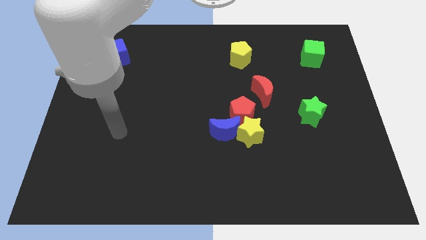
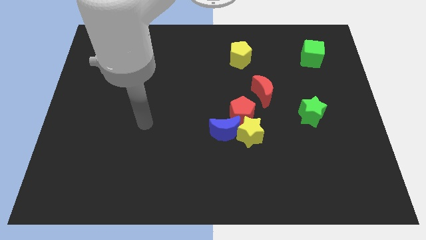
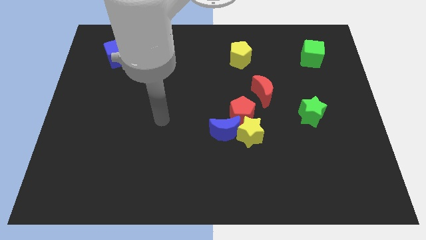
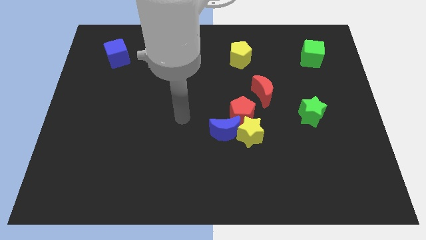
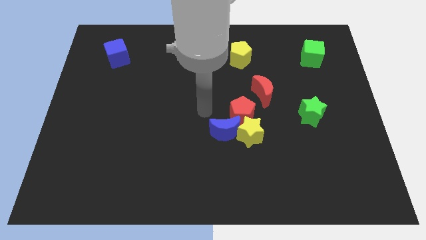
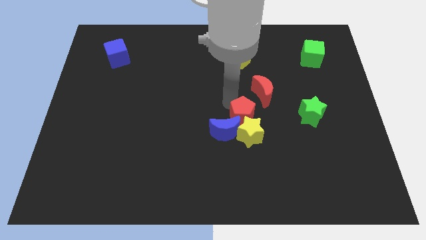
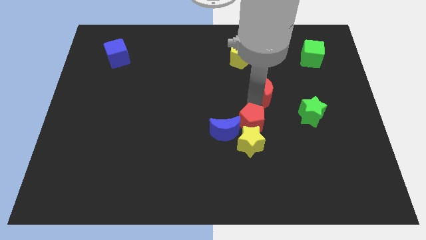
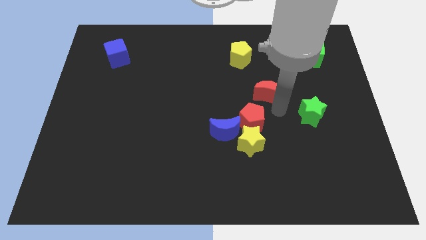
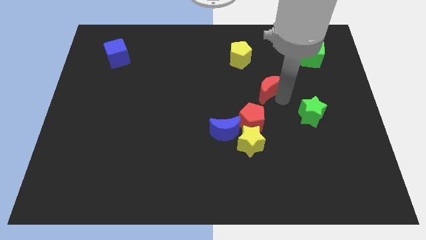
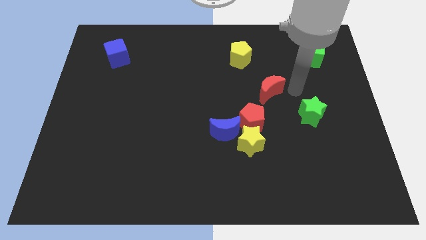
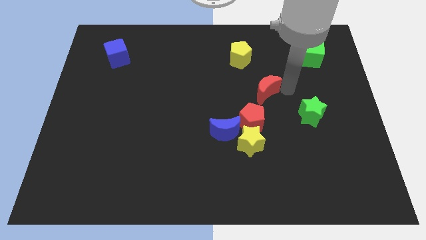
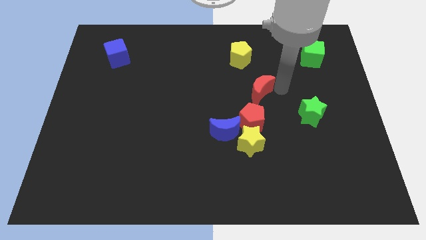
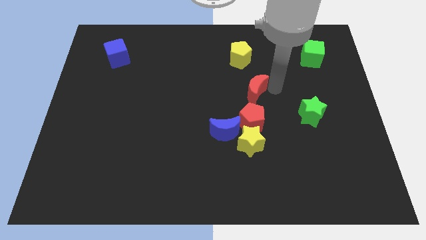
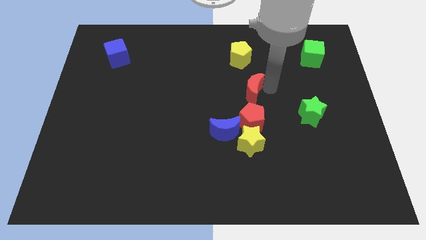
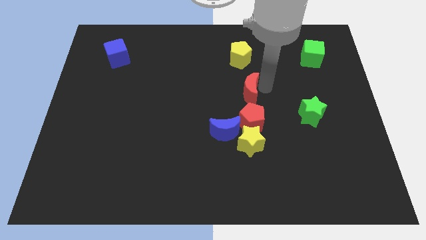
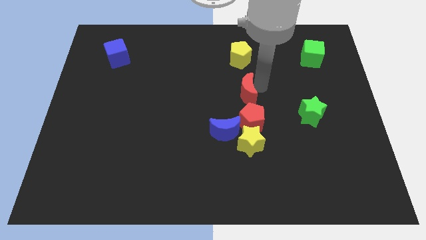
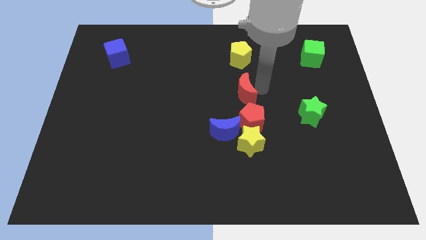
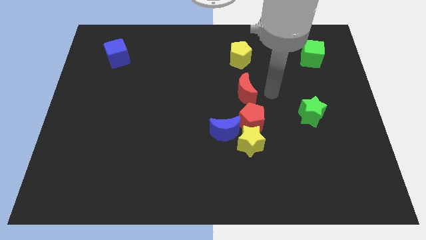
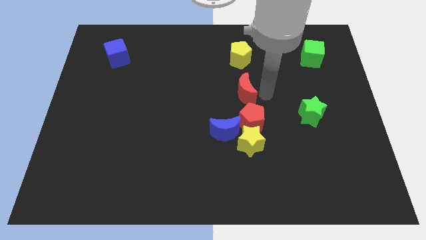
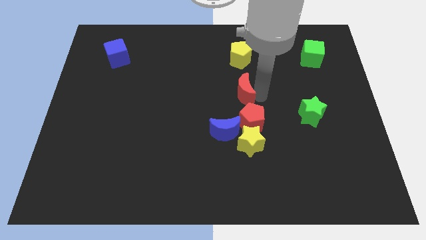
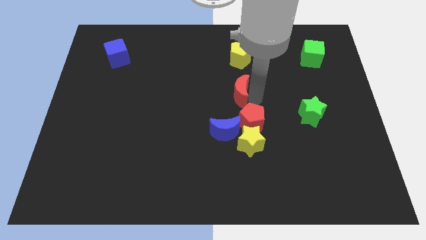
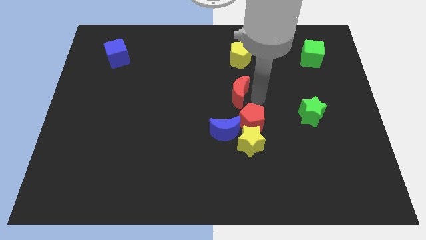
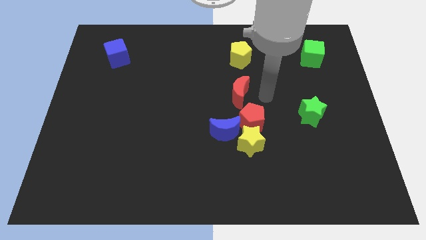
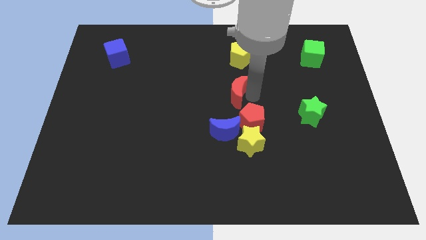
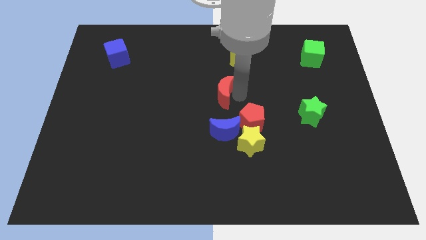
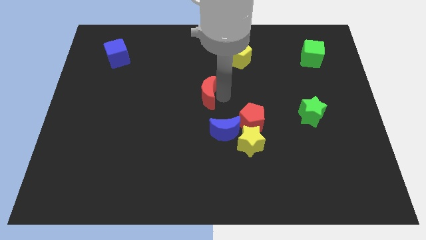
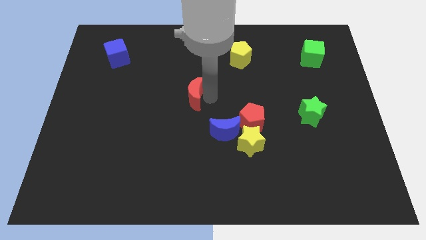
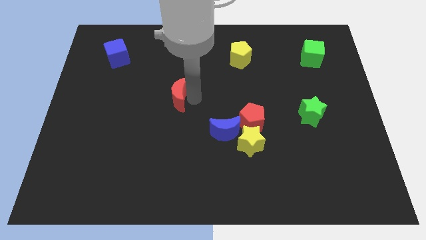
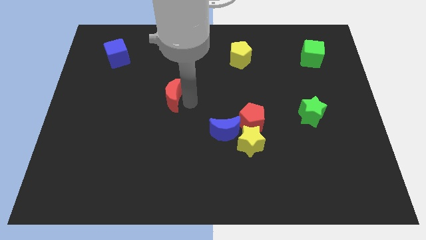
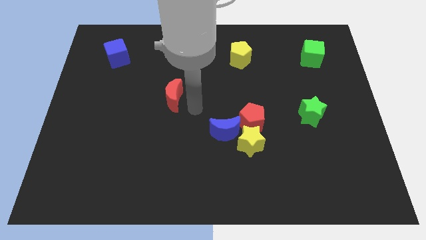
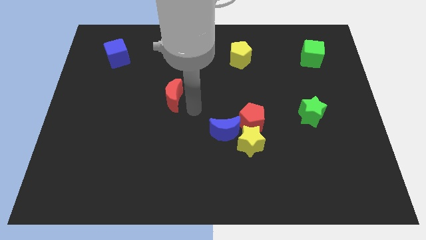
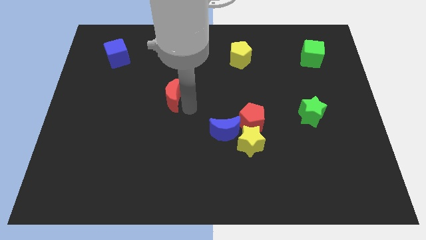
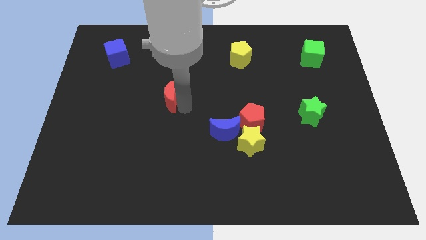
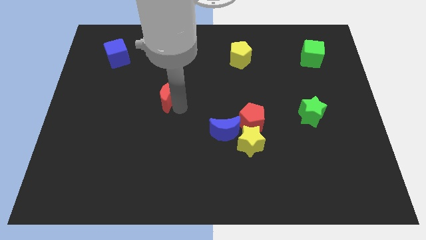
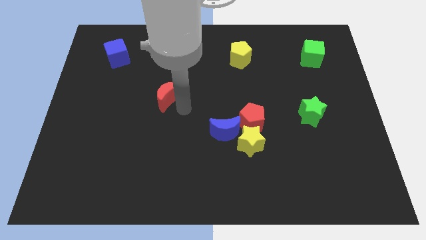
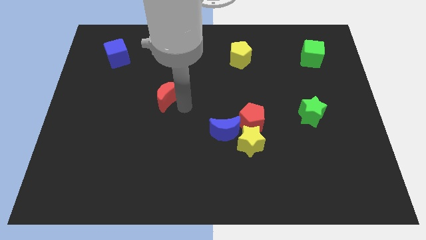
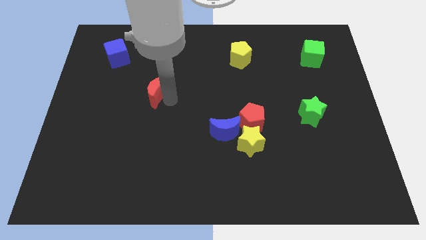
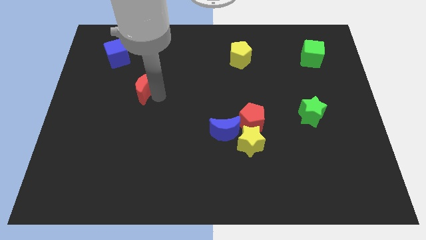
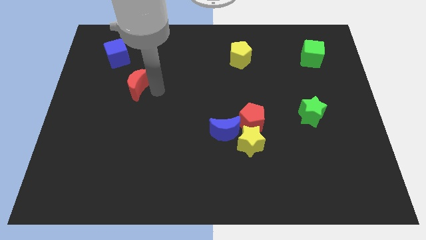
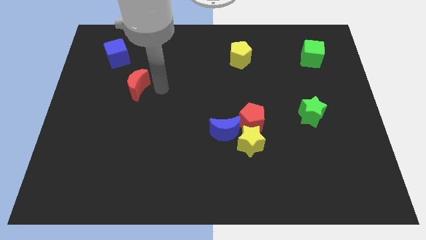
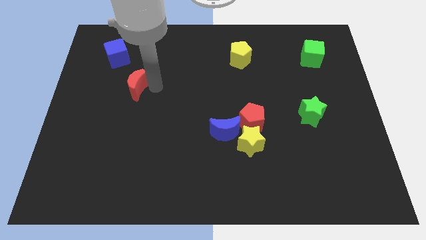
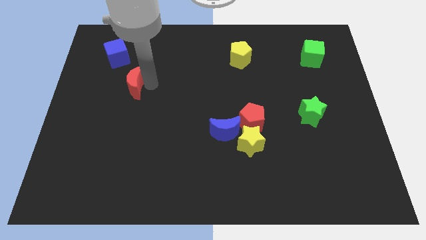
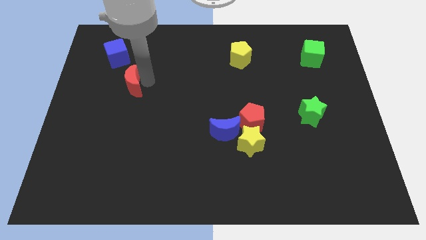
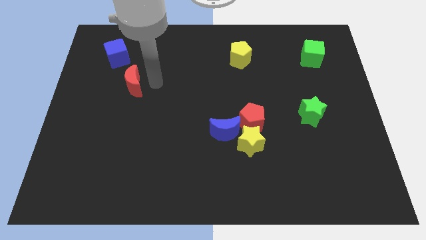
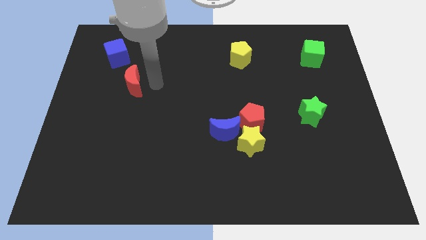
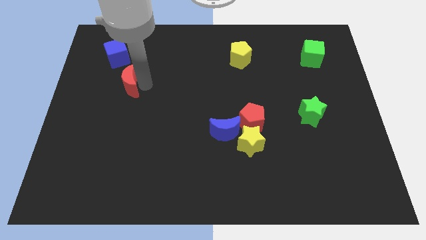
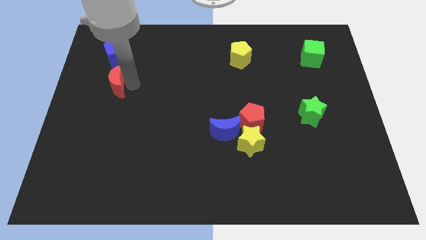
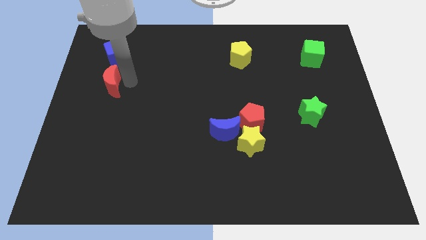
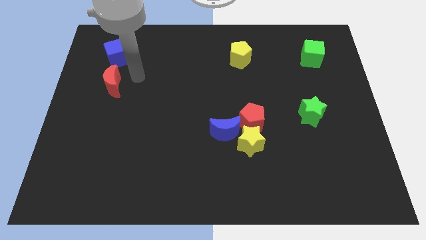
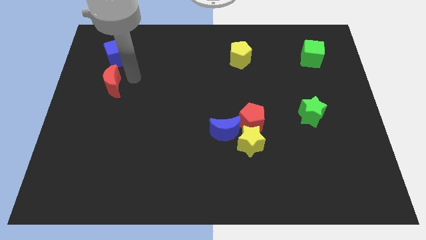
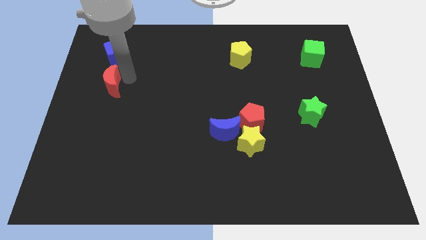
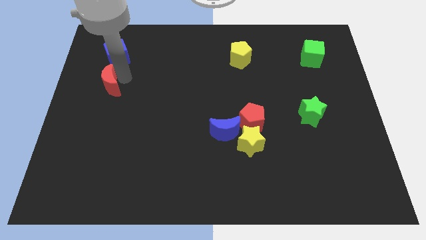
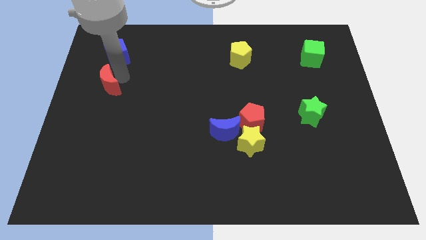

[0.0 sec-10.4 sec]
push the red moon to the center left
